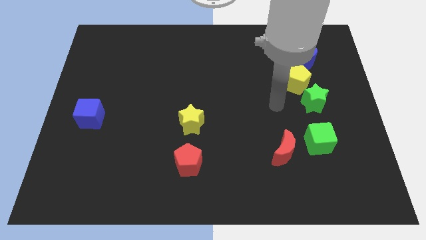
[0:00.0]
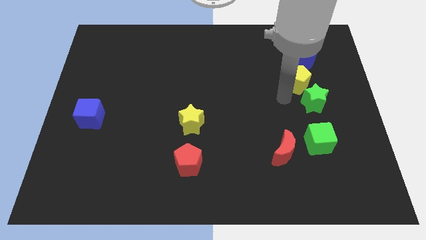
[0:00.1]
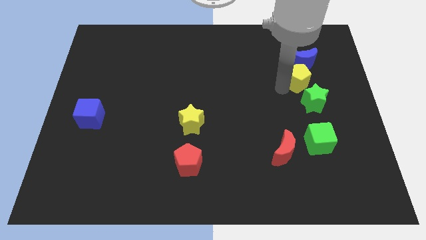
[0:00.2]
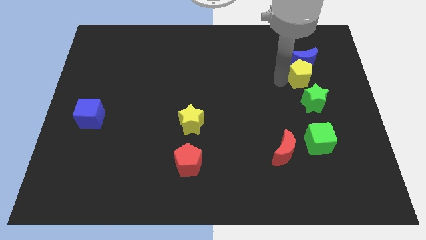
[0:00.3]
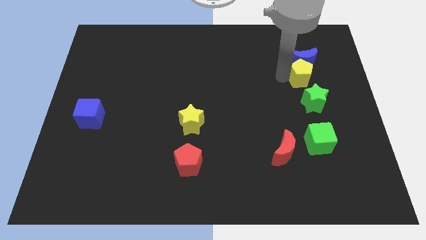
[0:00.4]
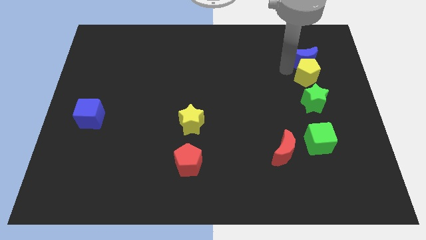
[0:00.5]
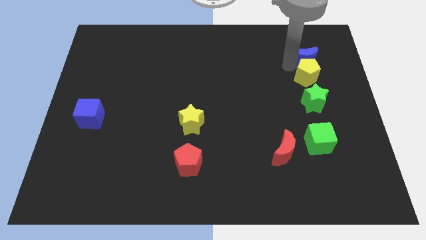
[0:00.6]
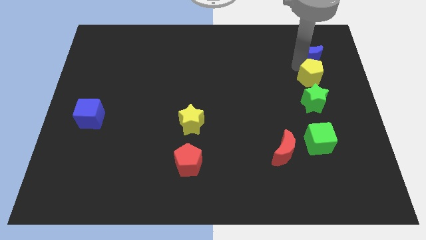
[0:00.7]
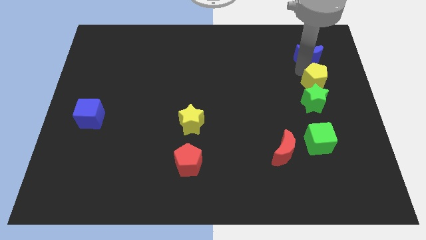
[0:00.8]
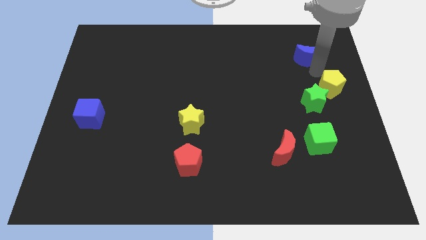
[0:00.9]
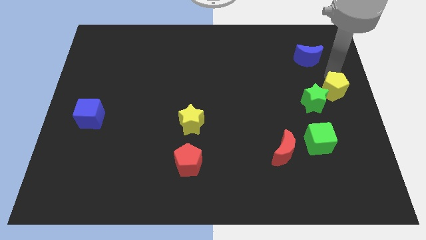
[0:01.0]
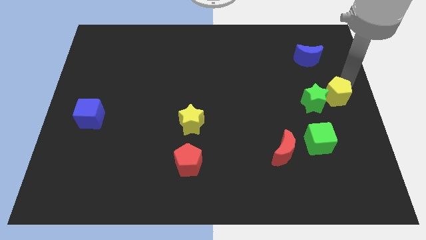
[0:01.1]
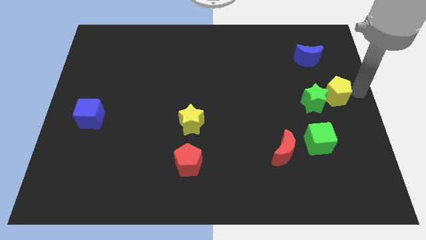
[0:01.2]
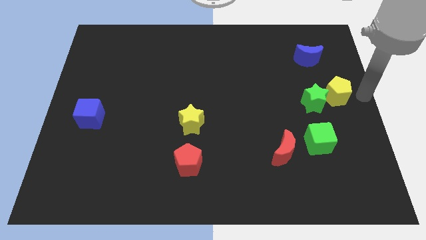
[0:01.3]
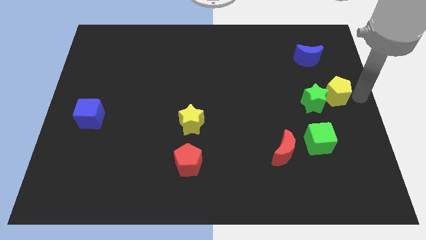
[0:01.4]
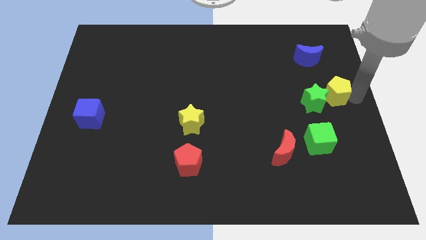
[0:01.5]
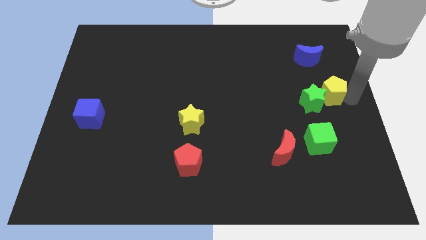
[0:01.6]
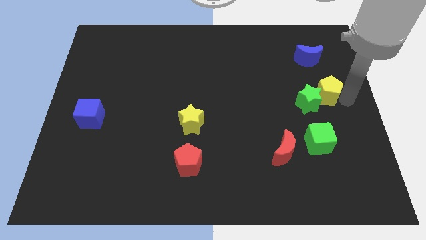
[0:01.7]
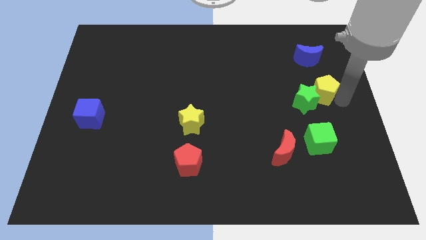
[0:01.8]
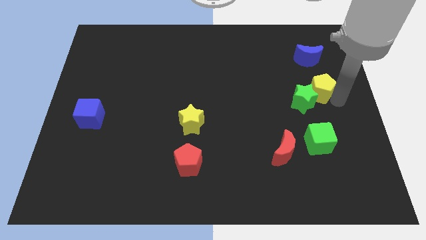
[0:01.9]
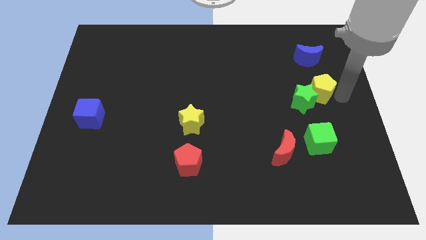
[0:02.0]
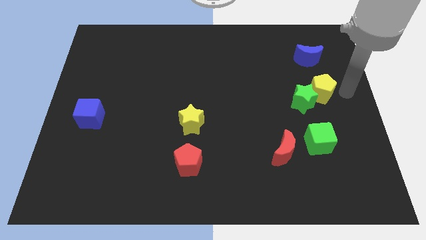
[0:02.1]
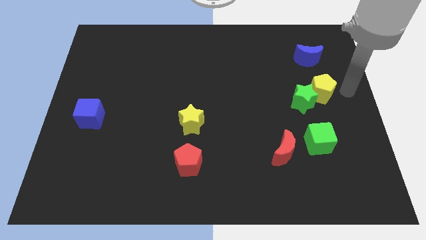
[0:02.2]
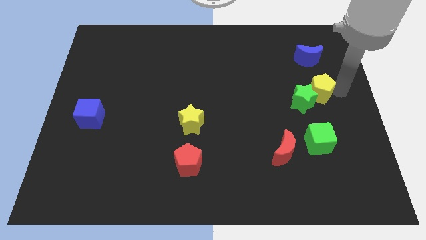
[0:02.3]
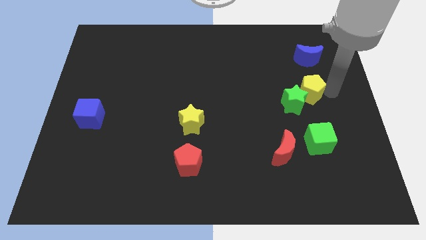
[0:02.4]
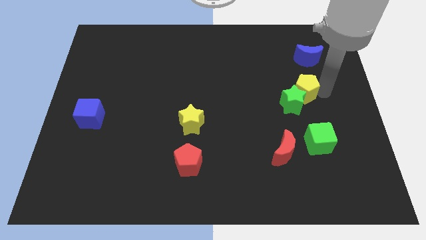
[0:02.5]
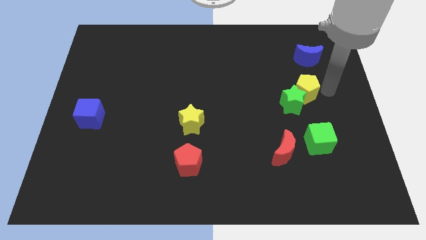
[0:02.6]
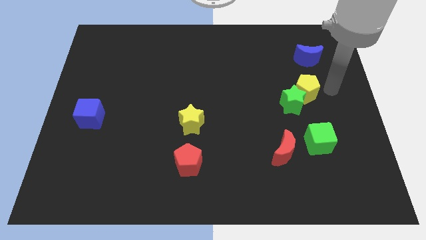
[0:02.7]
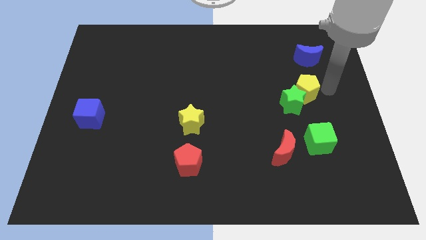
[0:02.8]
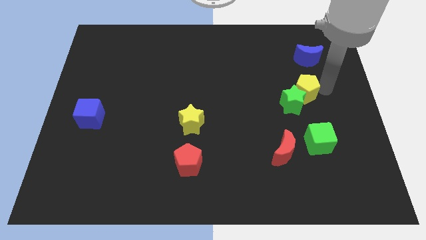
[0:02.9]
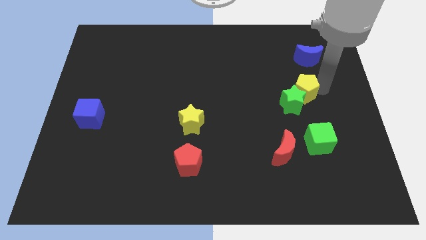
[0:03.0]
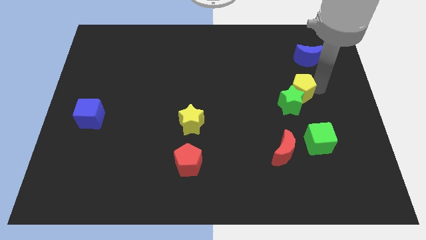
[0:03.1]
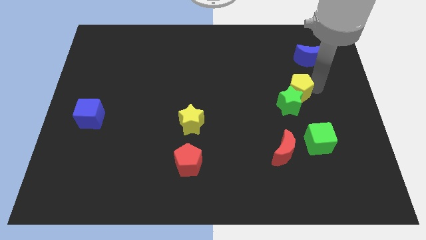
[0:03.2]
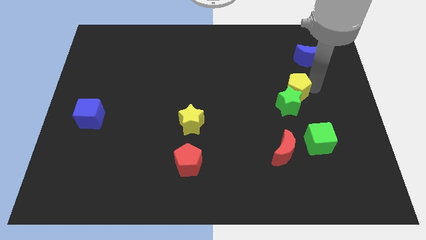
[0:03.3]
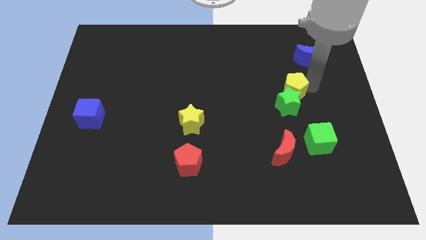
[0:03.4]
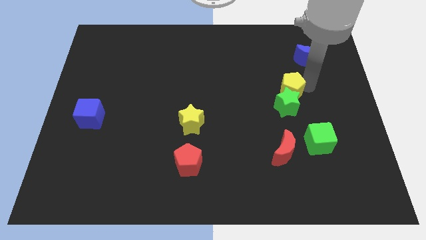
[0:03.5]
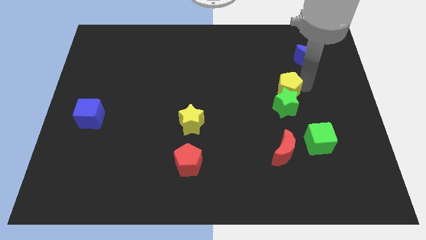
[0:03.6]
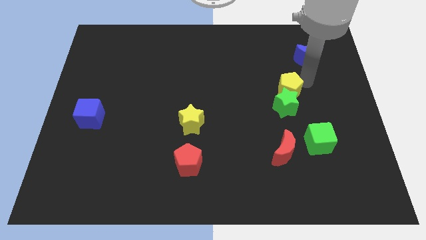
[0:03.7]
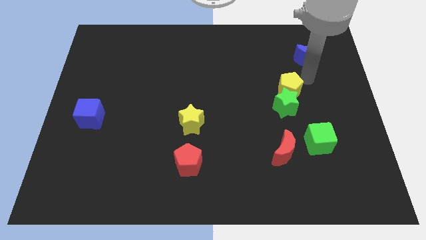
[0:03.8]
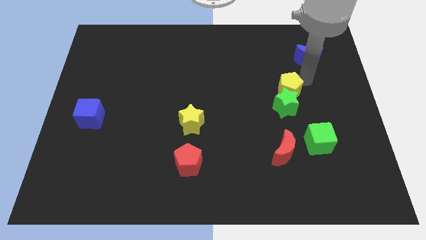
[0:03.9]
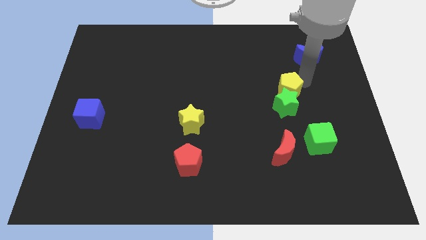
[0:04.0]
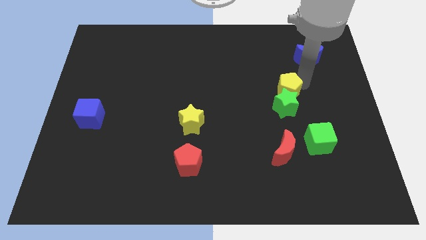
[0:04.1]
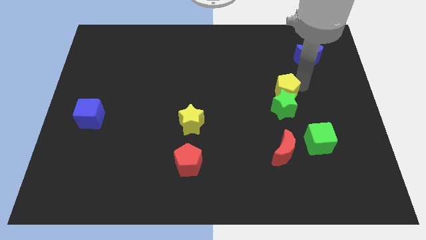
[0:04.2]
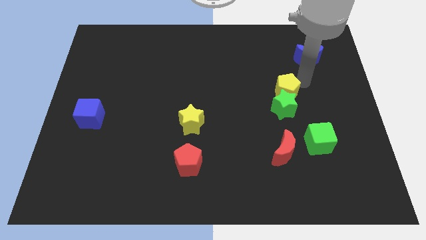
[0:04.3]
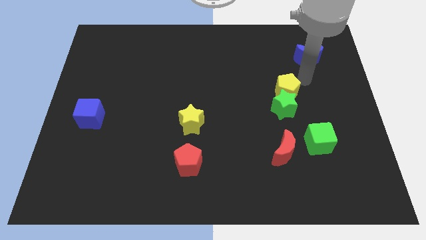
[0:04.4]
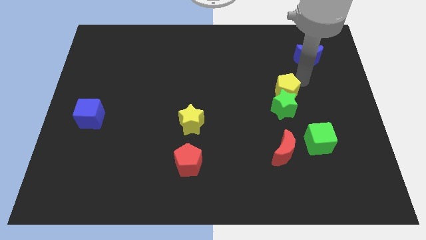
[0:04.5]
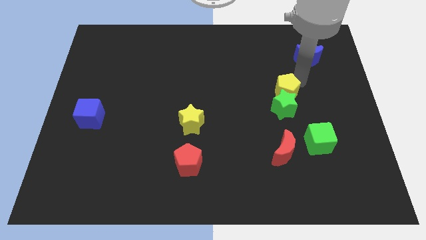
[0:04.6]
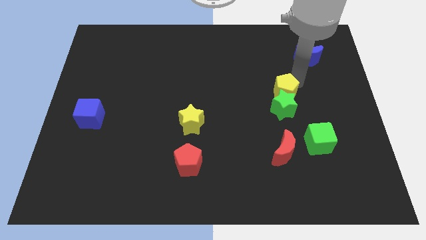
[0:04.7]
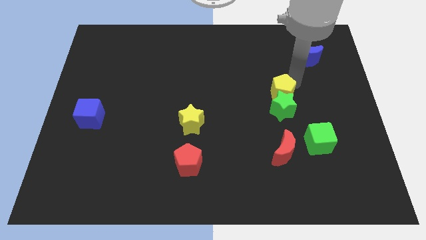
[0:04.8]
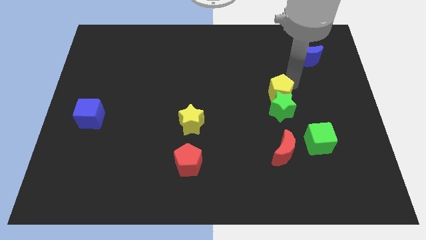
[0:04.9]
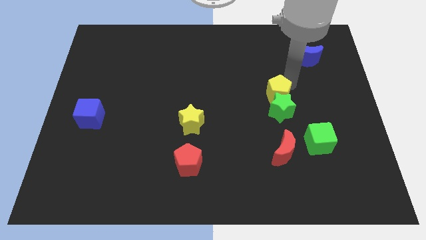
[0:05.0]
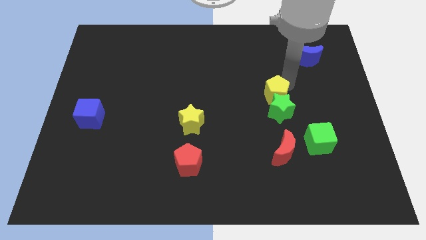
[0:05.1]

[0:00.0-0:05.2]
slightly slide the yellow pentagon downwards and then left

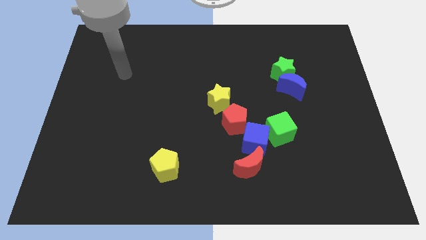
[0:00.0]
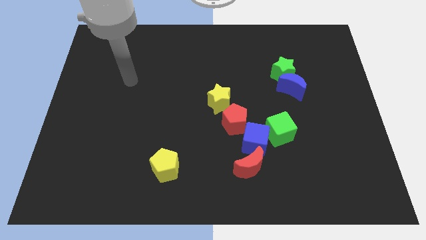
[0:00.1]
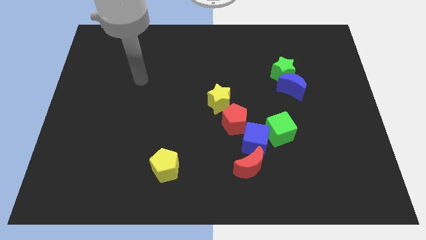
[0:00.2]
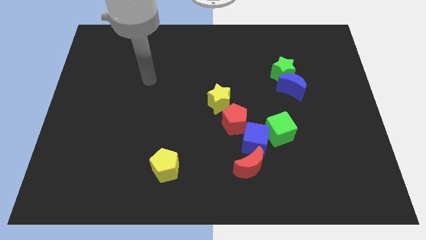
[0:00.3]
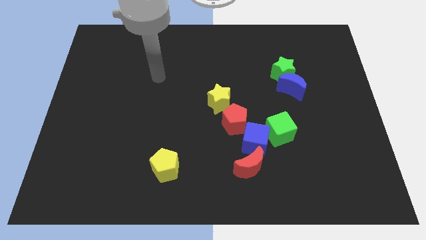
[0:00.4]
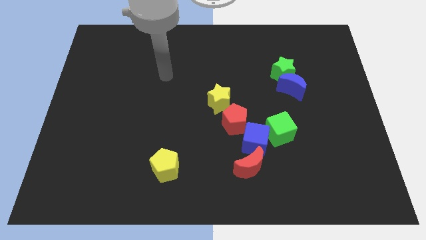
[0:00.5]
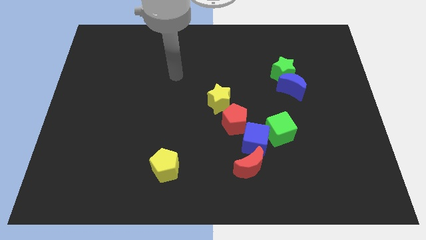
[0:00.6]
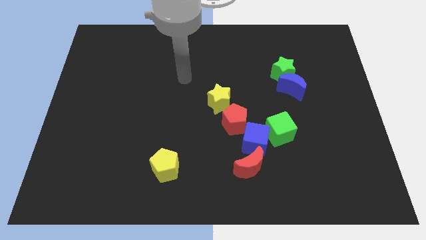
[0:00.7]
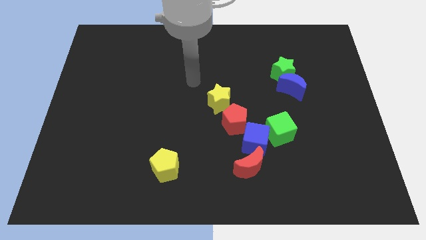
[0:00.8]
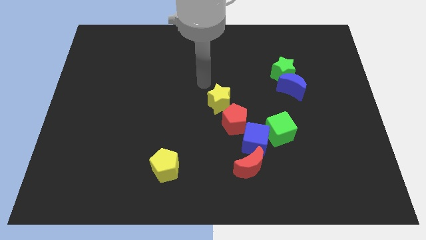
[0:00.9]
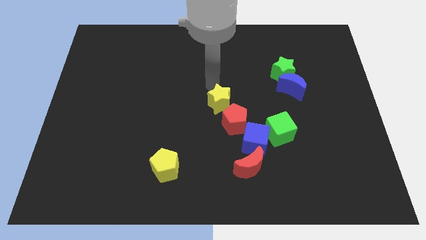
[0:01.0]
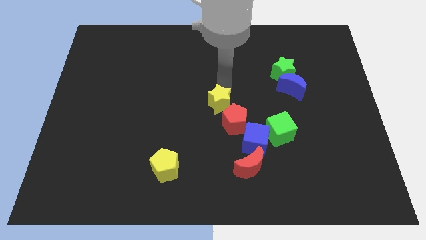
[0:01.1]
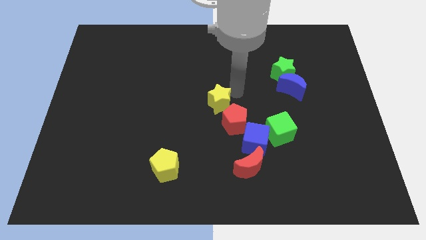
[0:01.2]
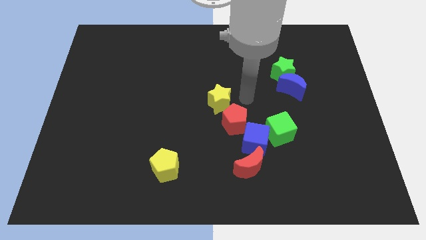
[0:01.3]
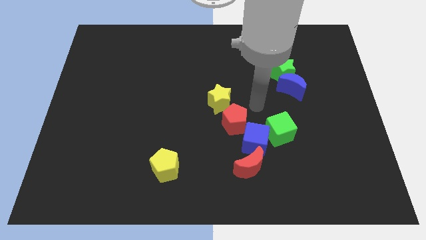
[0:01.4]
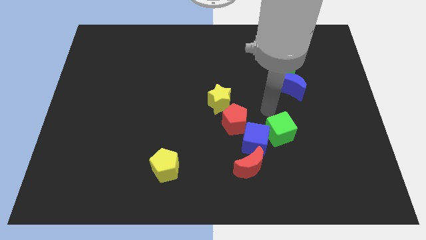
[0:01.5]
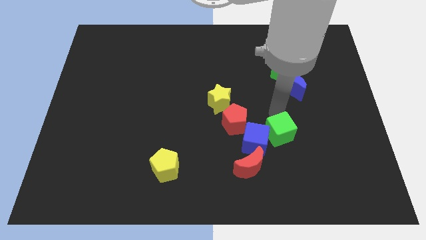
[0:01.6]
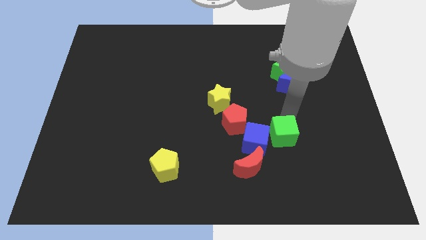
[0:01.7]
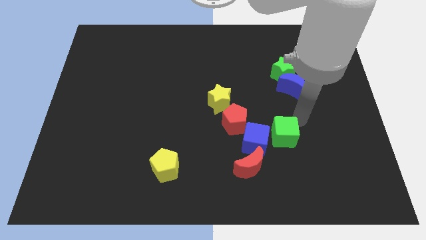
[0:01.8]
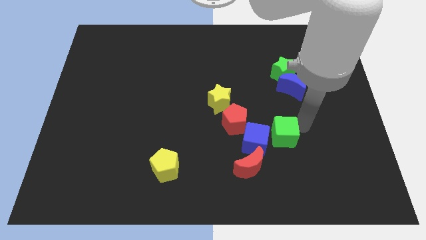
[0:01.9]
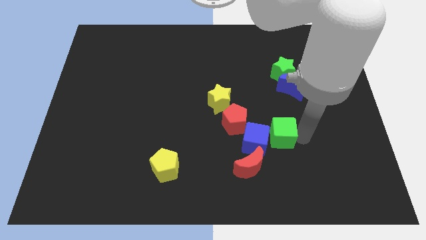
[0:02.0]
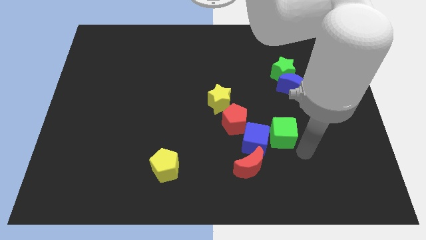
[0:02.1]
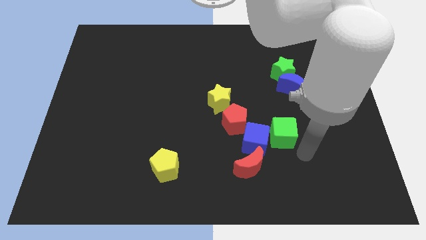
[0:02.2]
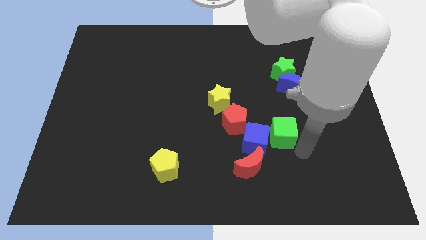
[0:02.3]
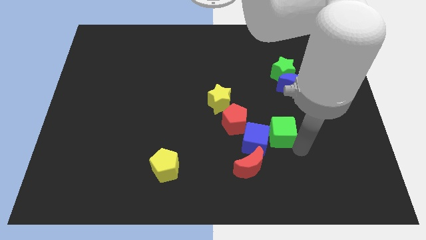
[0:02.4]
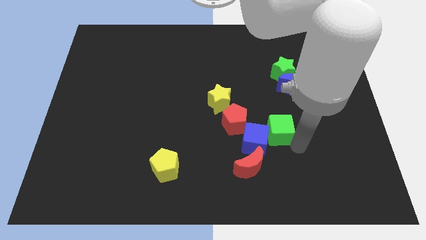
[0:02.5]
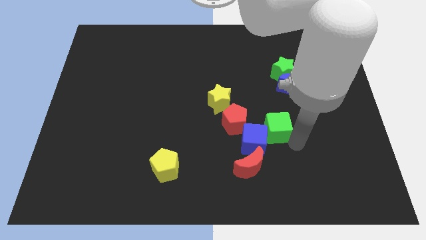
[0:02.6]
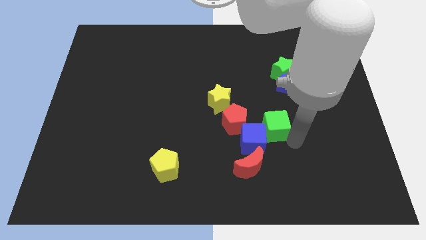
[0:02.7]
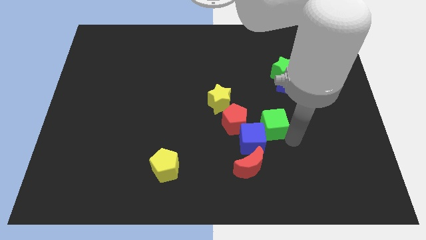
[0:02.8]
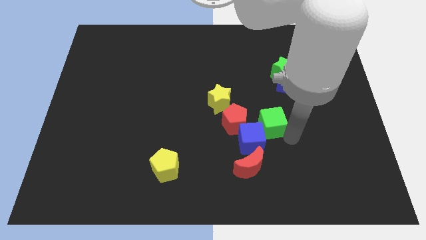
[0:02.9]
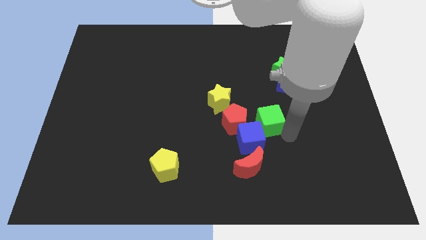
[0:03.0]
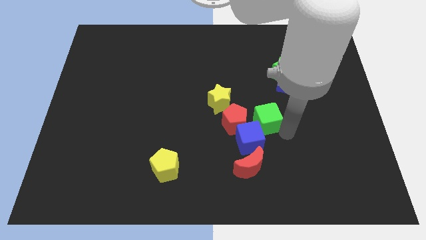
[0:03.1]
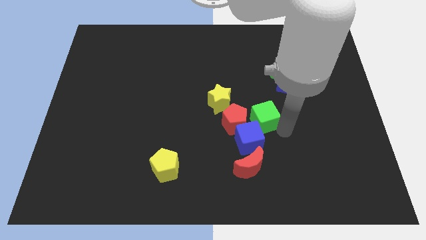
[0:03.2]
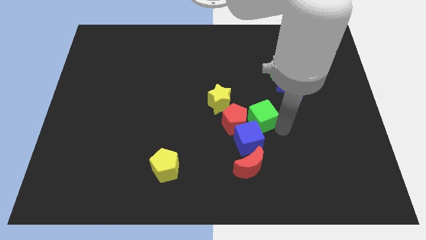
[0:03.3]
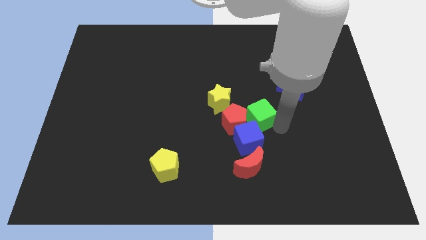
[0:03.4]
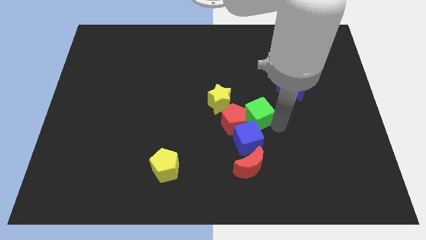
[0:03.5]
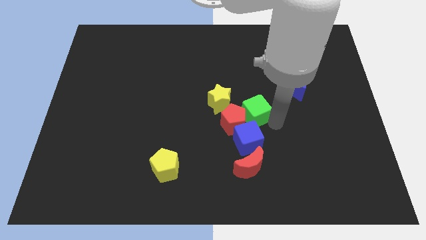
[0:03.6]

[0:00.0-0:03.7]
move the green cube a bit up and to the left diagonally
